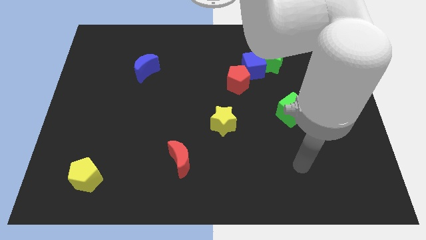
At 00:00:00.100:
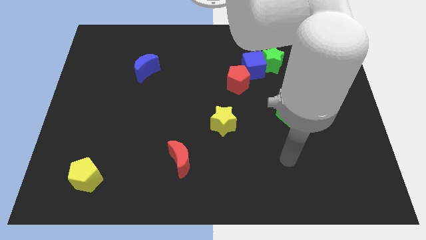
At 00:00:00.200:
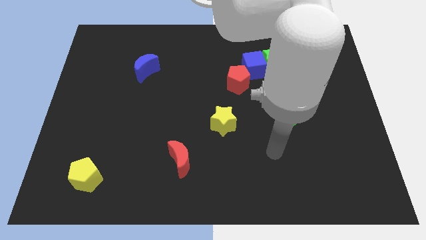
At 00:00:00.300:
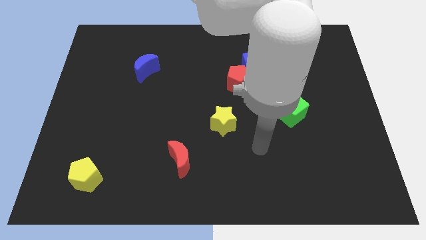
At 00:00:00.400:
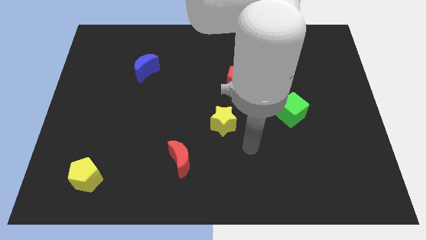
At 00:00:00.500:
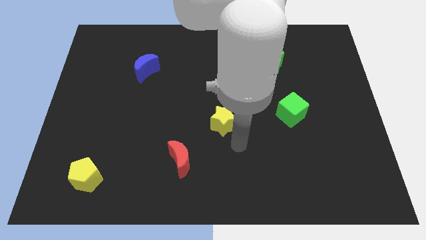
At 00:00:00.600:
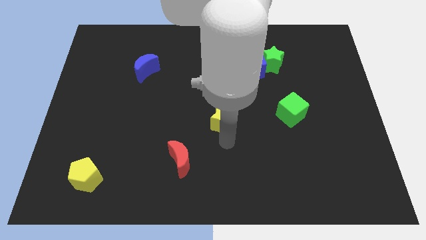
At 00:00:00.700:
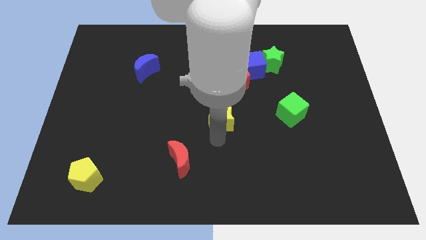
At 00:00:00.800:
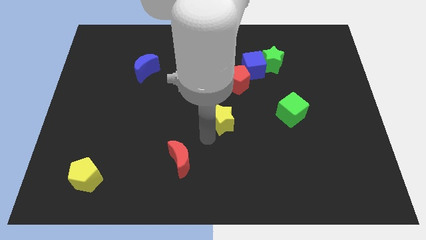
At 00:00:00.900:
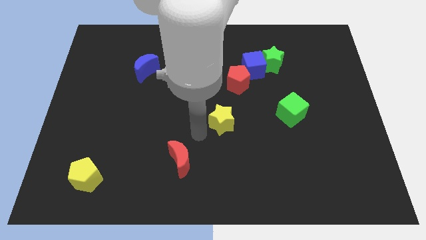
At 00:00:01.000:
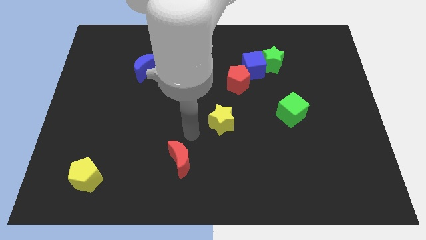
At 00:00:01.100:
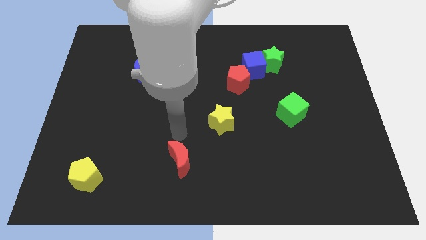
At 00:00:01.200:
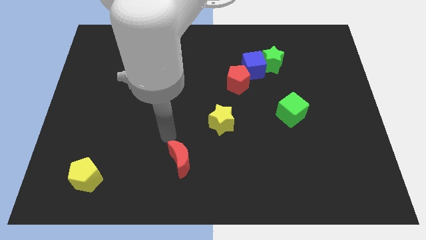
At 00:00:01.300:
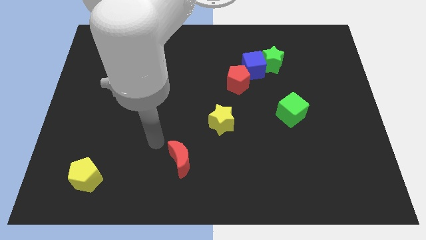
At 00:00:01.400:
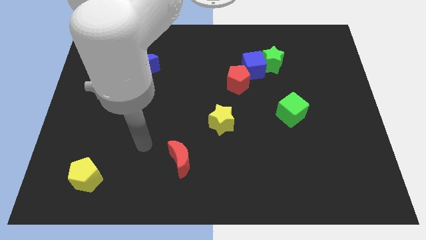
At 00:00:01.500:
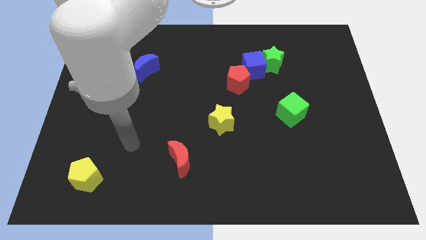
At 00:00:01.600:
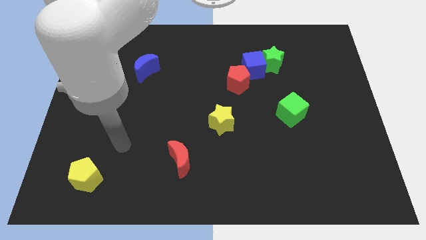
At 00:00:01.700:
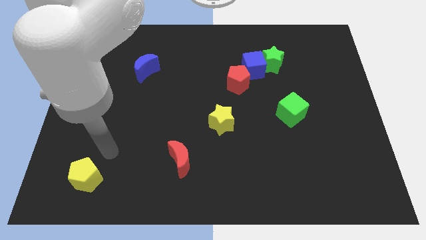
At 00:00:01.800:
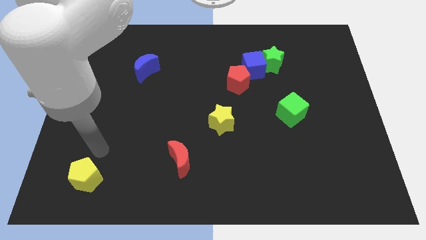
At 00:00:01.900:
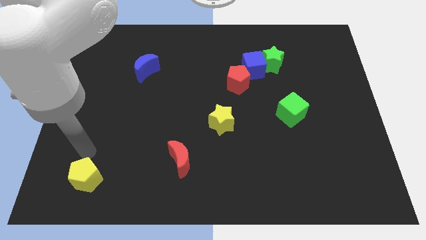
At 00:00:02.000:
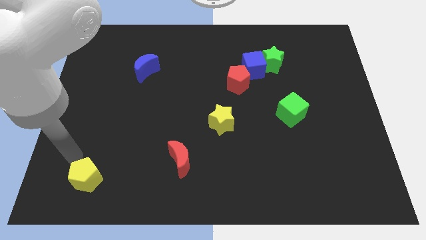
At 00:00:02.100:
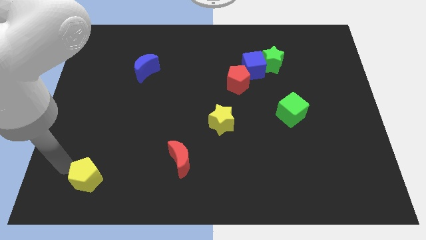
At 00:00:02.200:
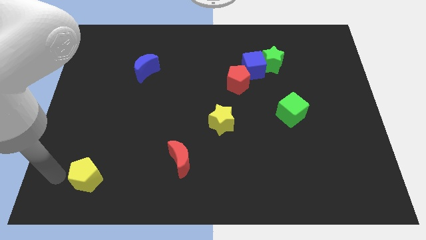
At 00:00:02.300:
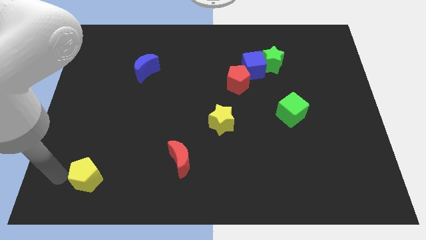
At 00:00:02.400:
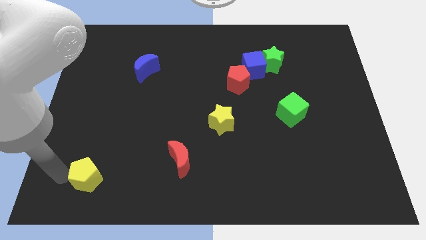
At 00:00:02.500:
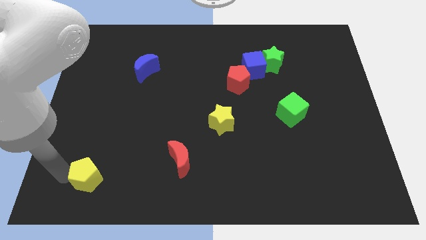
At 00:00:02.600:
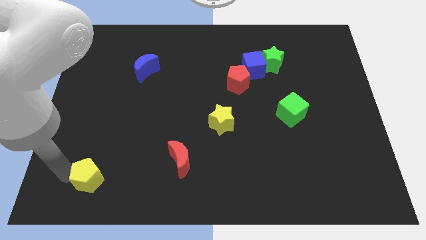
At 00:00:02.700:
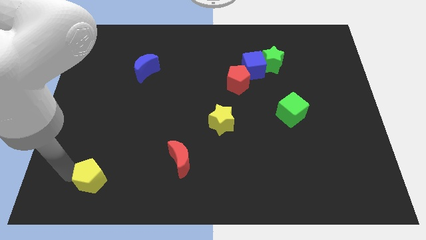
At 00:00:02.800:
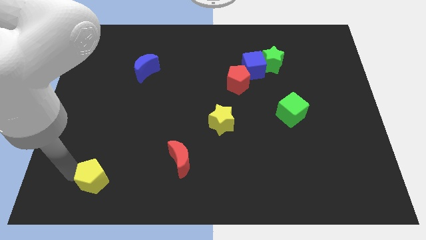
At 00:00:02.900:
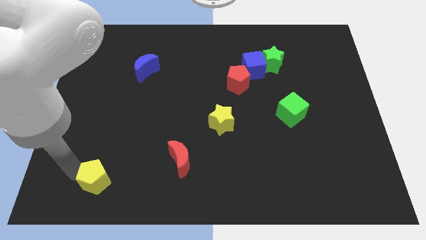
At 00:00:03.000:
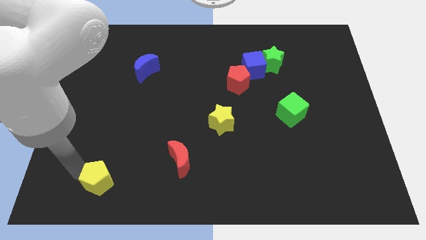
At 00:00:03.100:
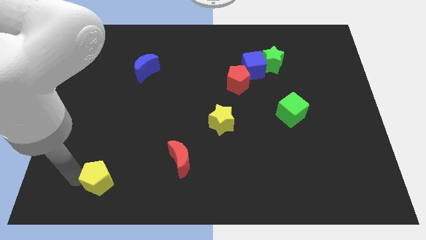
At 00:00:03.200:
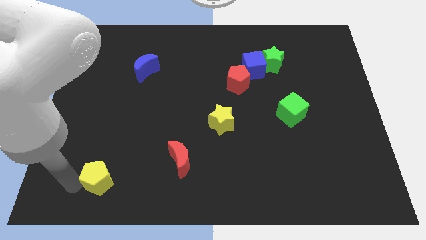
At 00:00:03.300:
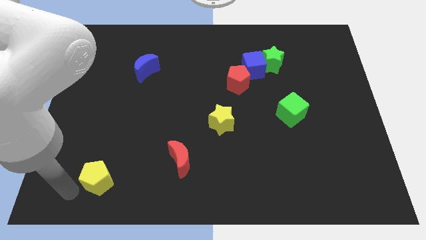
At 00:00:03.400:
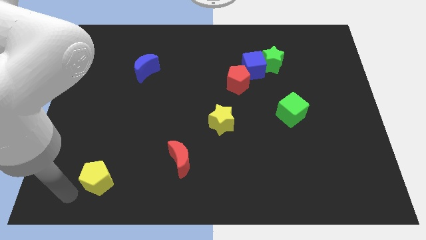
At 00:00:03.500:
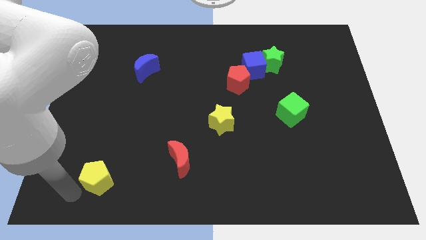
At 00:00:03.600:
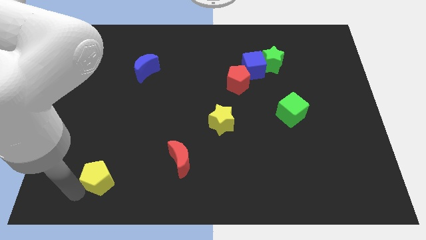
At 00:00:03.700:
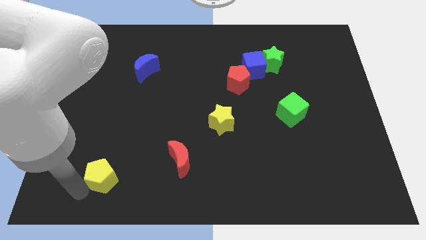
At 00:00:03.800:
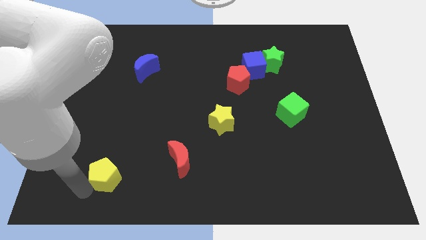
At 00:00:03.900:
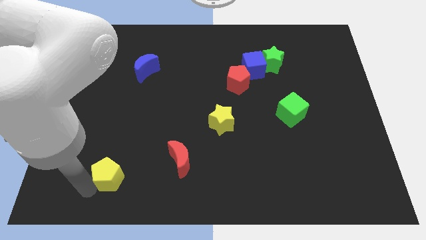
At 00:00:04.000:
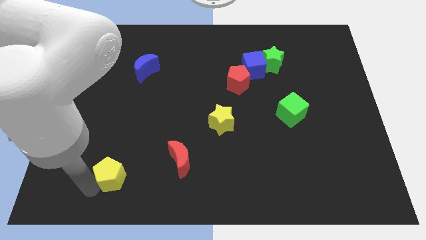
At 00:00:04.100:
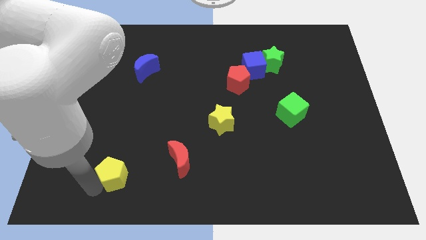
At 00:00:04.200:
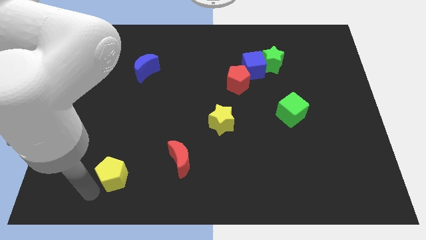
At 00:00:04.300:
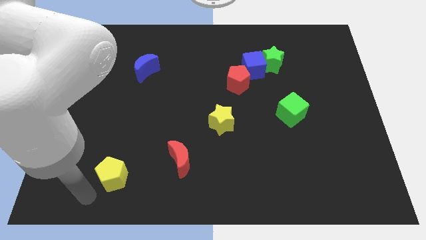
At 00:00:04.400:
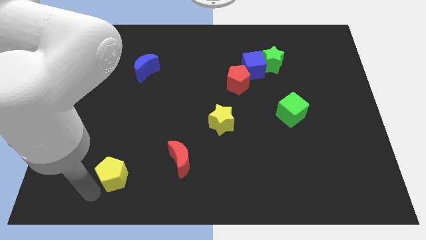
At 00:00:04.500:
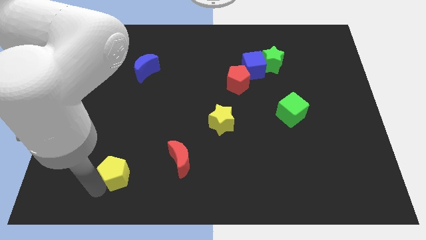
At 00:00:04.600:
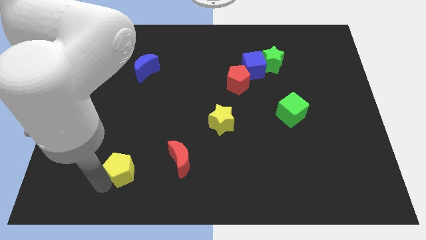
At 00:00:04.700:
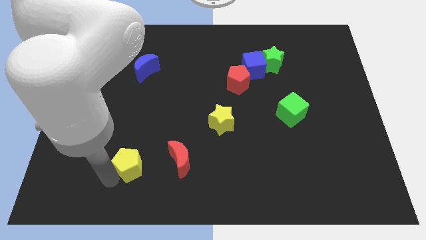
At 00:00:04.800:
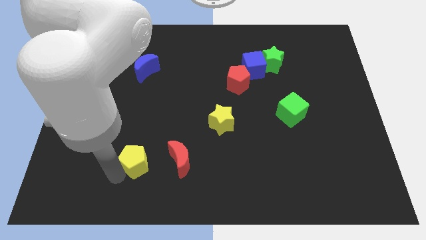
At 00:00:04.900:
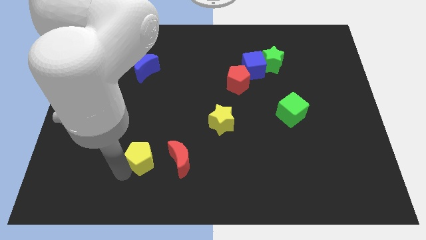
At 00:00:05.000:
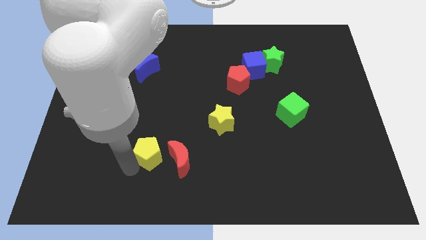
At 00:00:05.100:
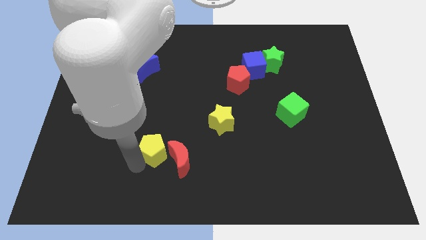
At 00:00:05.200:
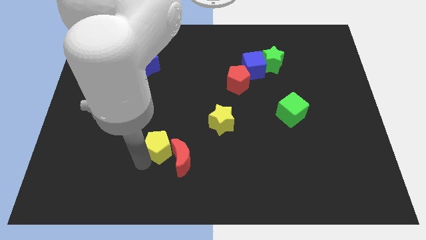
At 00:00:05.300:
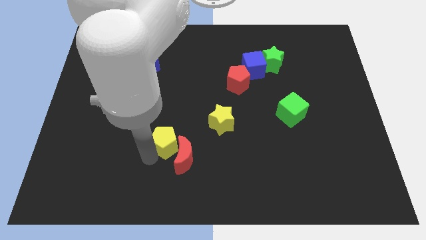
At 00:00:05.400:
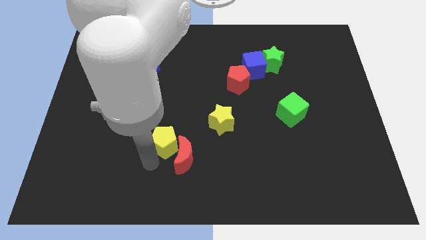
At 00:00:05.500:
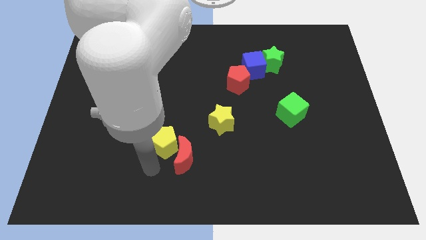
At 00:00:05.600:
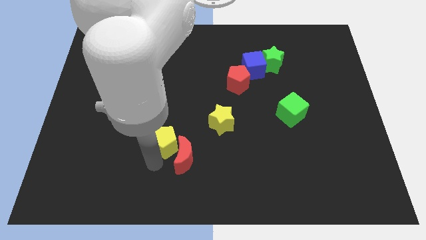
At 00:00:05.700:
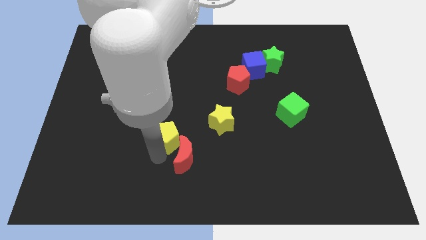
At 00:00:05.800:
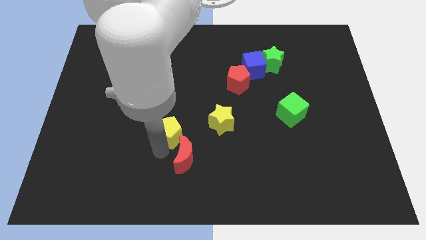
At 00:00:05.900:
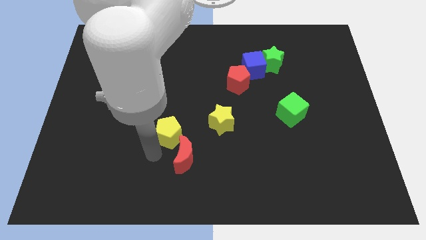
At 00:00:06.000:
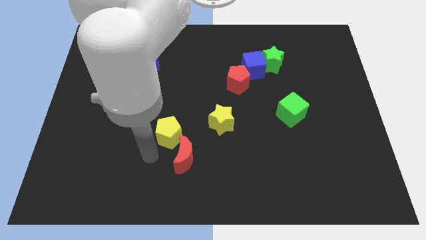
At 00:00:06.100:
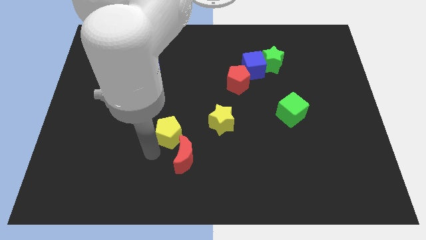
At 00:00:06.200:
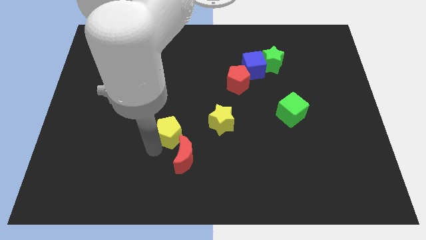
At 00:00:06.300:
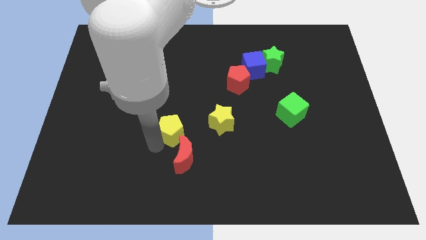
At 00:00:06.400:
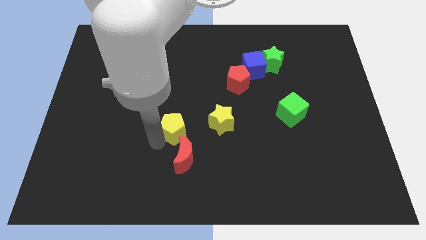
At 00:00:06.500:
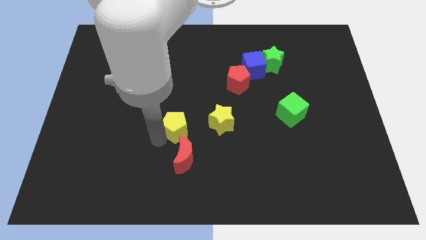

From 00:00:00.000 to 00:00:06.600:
slide the yellow pentagon up and right

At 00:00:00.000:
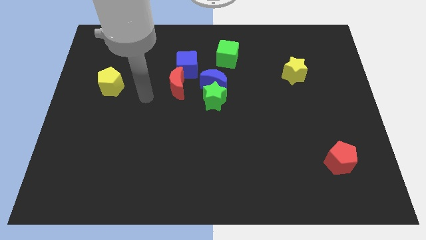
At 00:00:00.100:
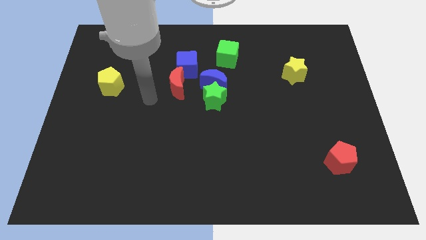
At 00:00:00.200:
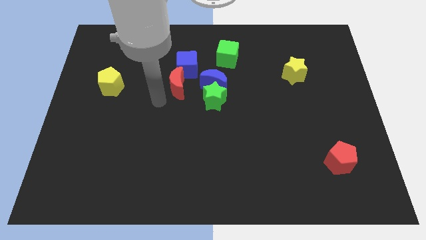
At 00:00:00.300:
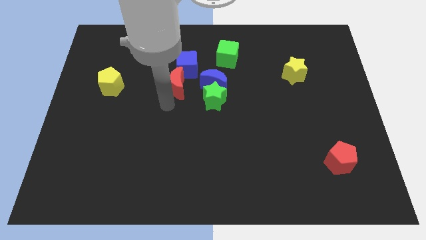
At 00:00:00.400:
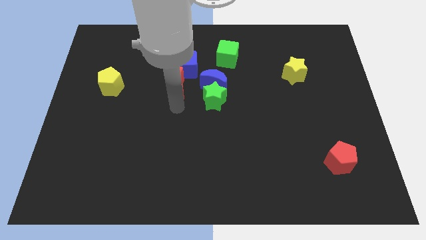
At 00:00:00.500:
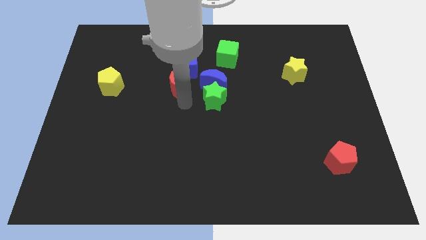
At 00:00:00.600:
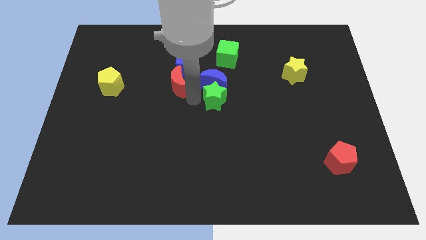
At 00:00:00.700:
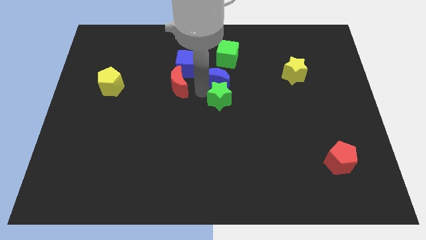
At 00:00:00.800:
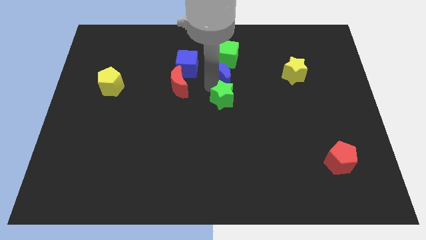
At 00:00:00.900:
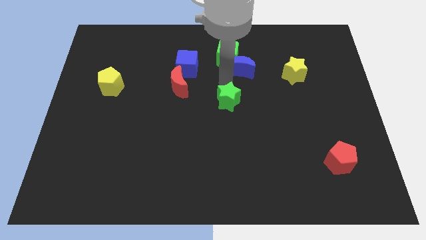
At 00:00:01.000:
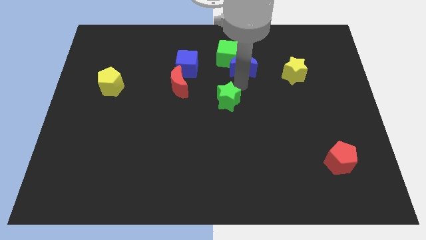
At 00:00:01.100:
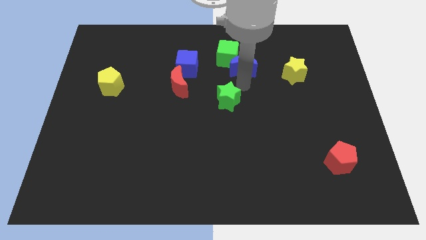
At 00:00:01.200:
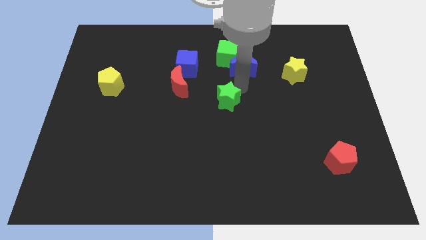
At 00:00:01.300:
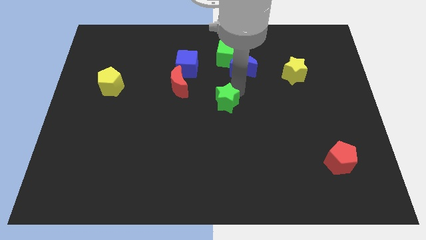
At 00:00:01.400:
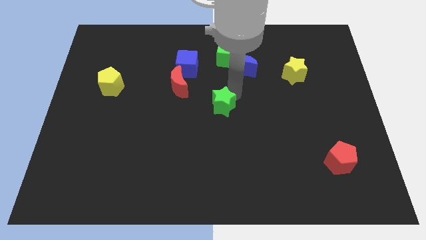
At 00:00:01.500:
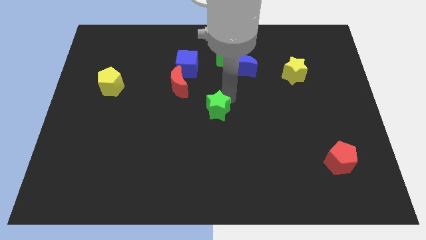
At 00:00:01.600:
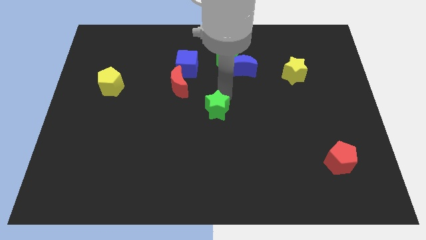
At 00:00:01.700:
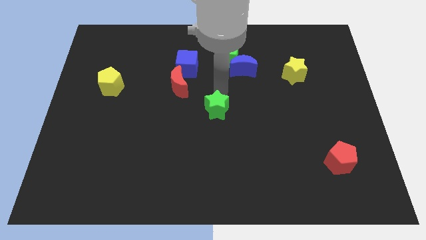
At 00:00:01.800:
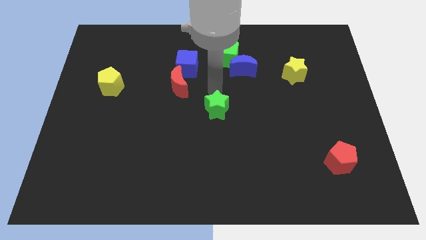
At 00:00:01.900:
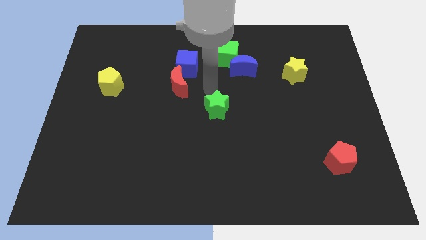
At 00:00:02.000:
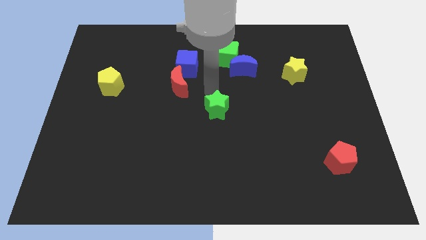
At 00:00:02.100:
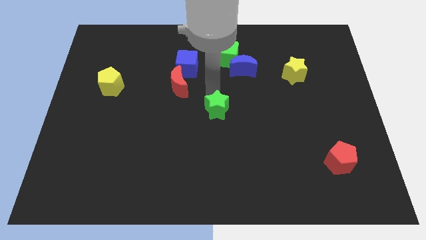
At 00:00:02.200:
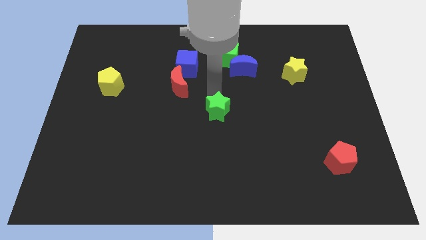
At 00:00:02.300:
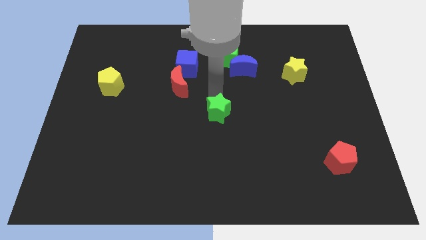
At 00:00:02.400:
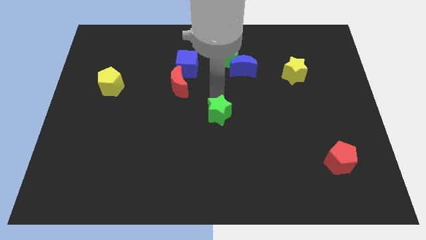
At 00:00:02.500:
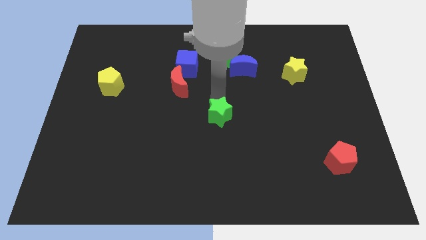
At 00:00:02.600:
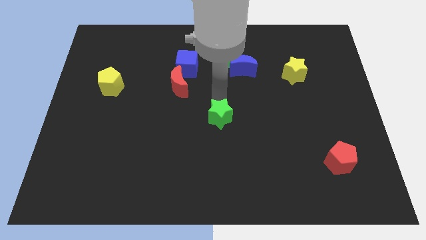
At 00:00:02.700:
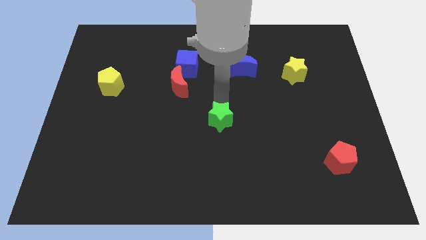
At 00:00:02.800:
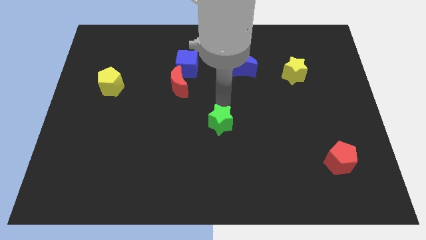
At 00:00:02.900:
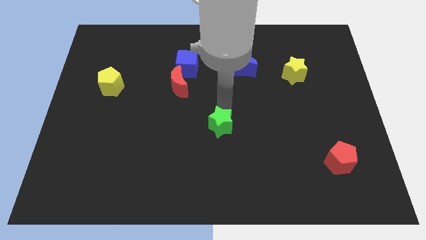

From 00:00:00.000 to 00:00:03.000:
push the green star somewhat downwards
